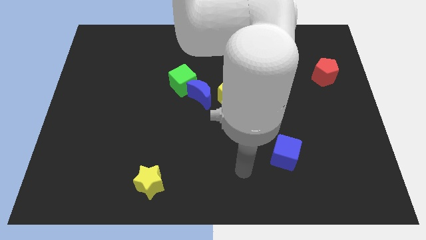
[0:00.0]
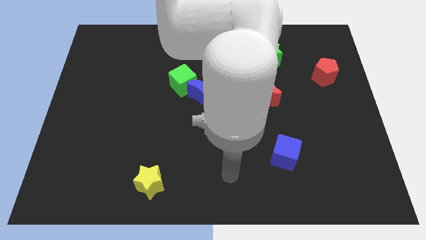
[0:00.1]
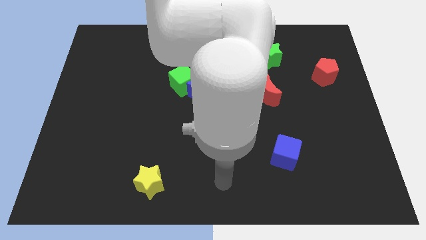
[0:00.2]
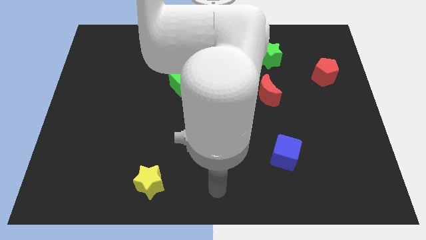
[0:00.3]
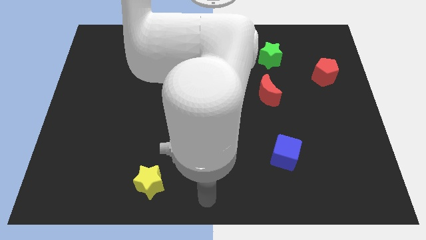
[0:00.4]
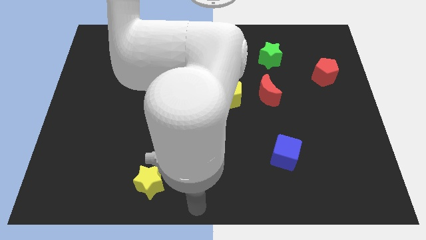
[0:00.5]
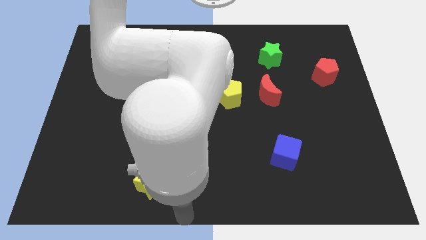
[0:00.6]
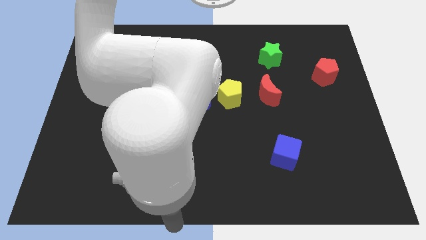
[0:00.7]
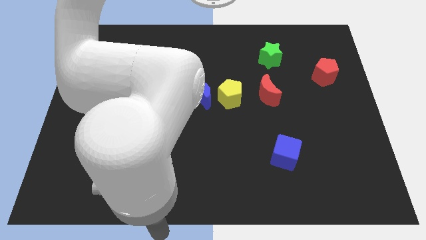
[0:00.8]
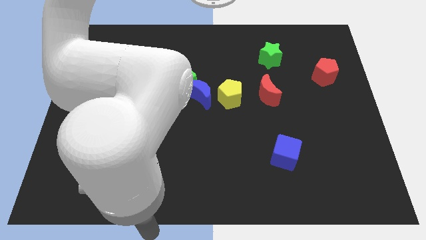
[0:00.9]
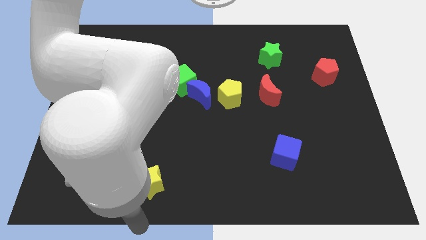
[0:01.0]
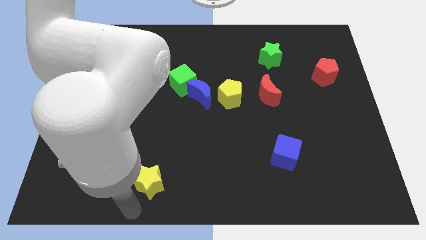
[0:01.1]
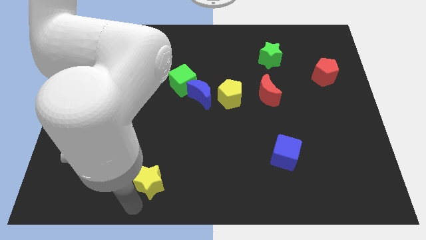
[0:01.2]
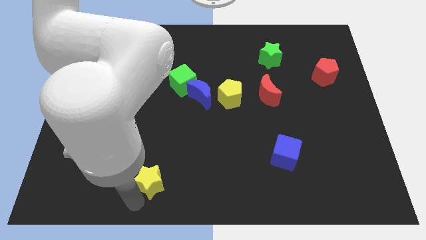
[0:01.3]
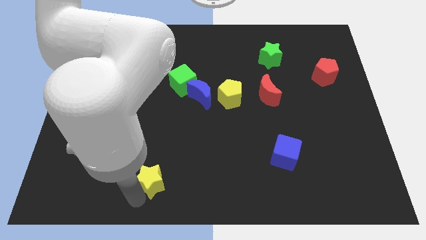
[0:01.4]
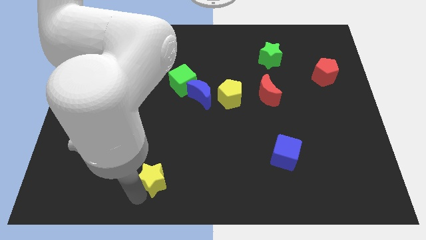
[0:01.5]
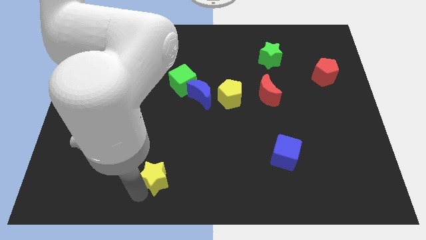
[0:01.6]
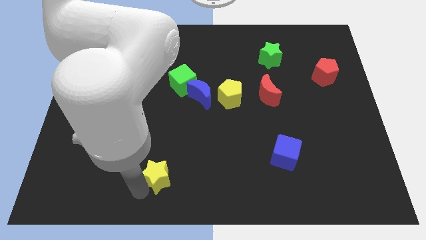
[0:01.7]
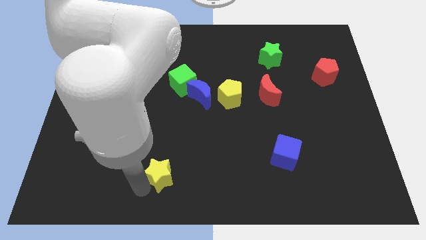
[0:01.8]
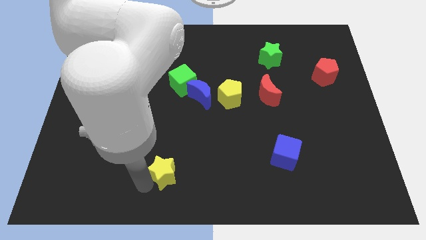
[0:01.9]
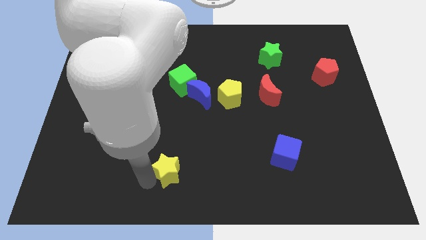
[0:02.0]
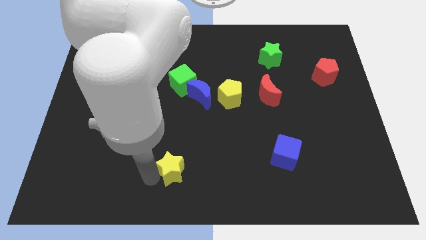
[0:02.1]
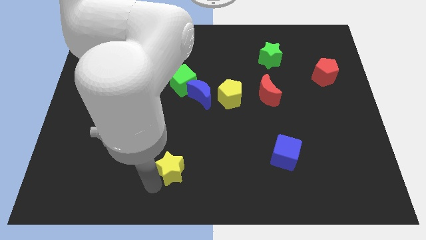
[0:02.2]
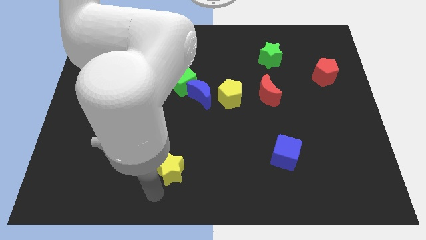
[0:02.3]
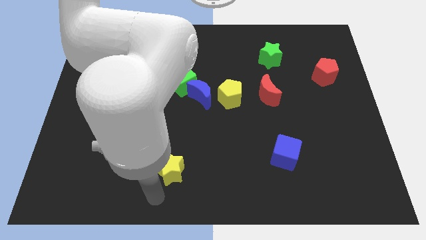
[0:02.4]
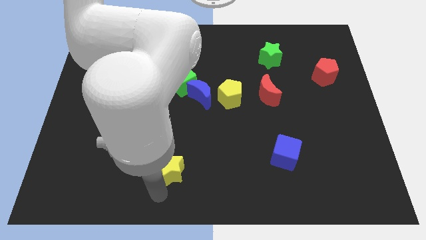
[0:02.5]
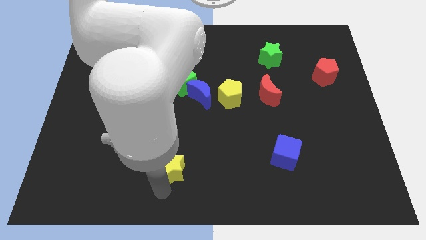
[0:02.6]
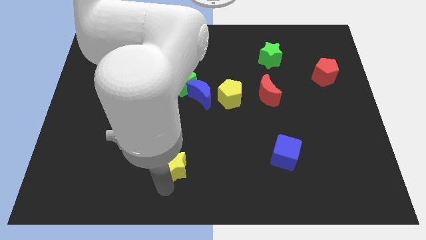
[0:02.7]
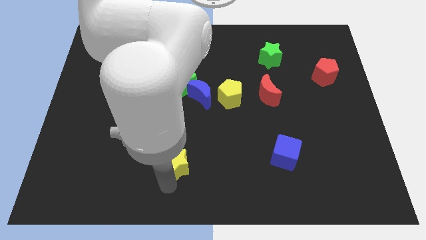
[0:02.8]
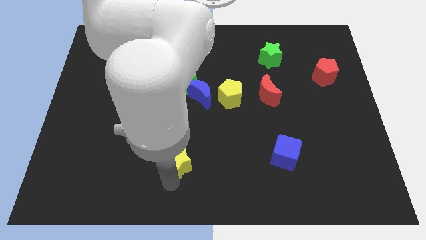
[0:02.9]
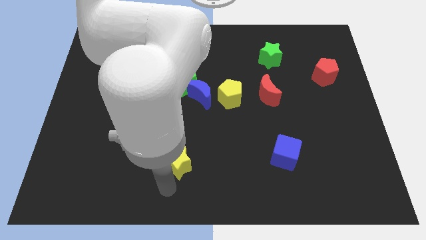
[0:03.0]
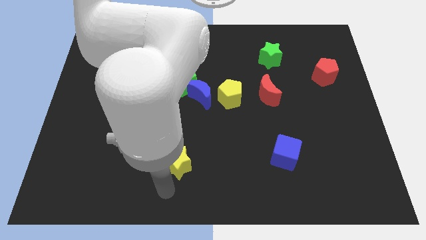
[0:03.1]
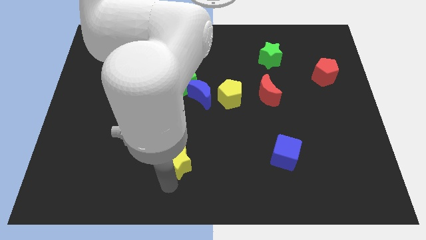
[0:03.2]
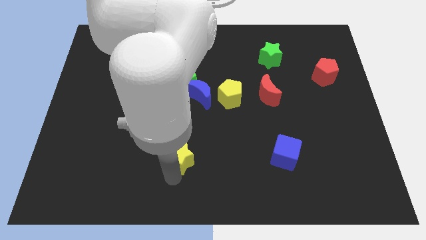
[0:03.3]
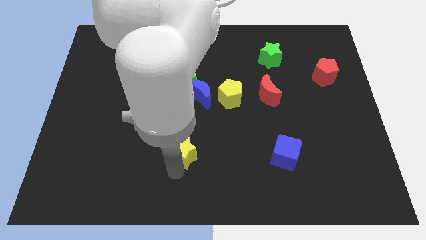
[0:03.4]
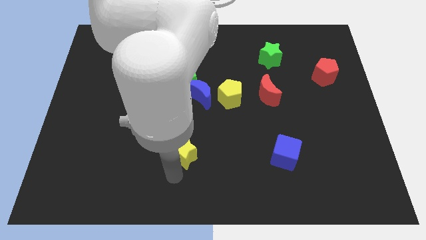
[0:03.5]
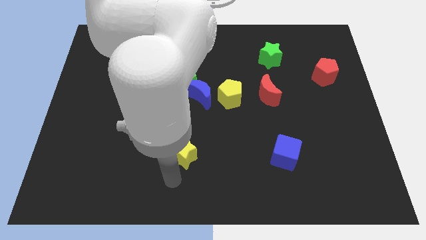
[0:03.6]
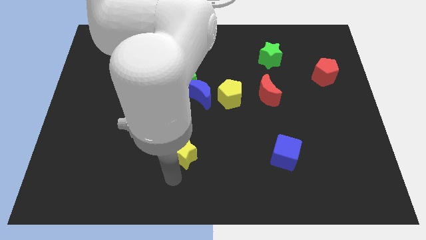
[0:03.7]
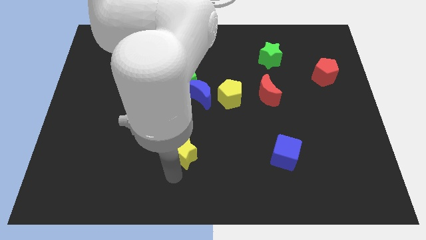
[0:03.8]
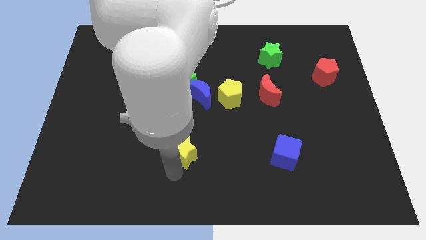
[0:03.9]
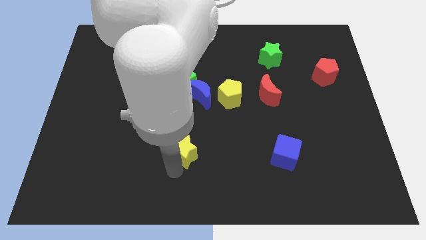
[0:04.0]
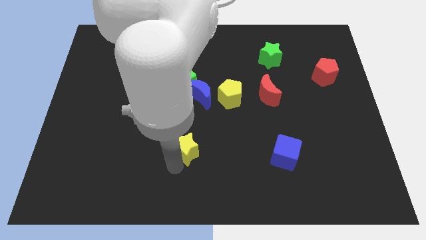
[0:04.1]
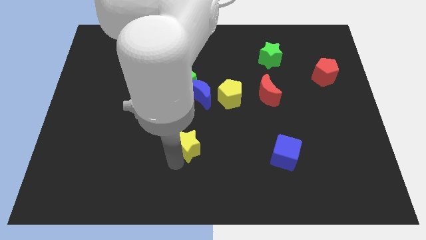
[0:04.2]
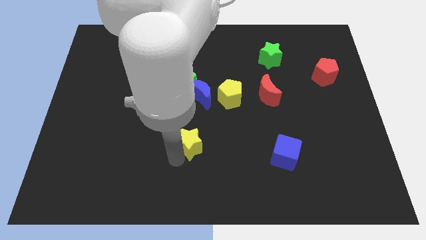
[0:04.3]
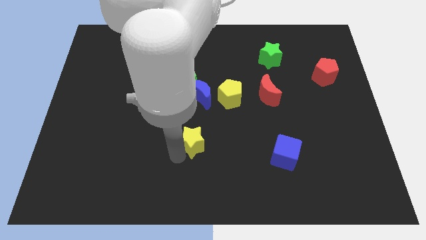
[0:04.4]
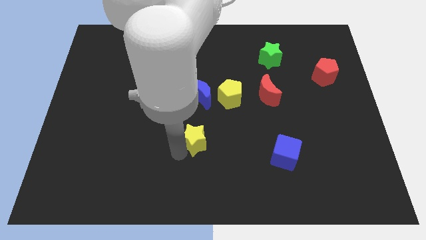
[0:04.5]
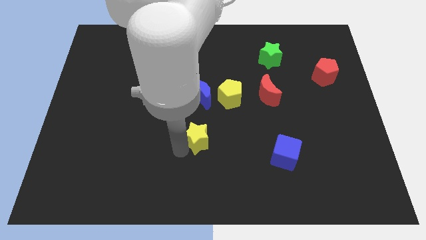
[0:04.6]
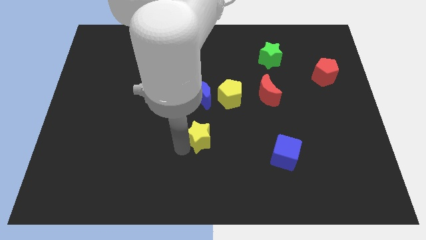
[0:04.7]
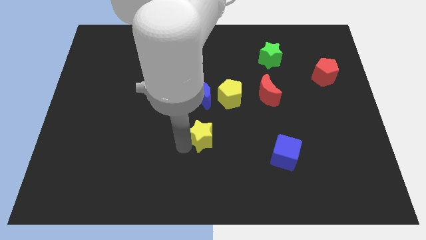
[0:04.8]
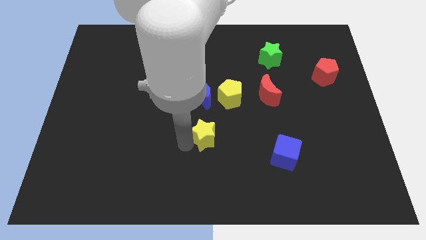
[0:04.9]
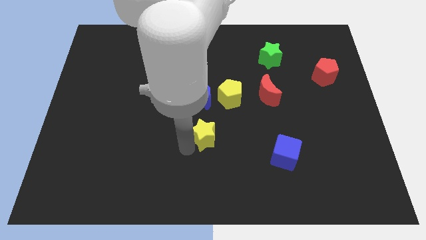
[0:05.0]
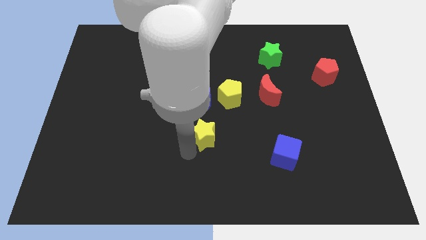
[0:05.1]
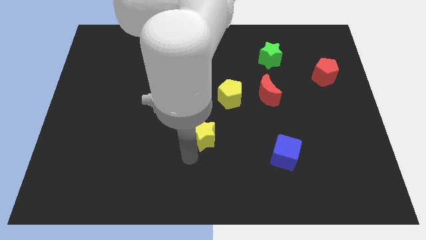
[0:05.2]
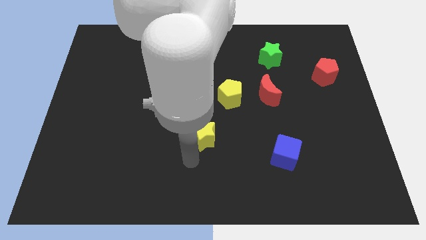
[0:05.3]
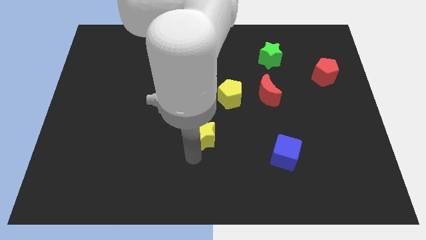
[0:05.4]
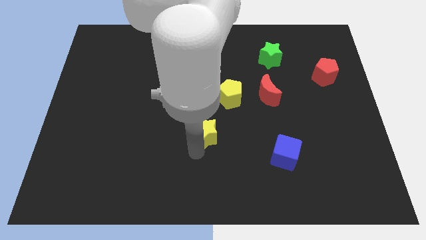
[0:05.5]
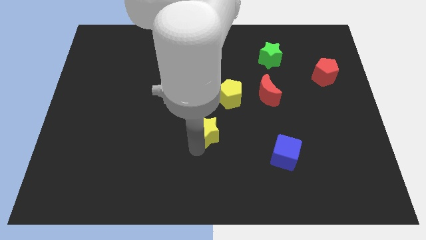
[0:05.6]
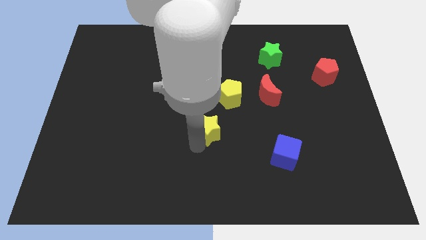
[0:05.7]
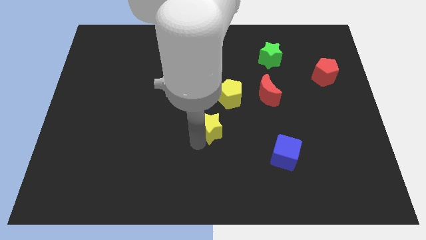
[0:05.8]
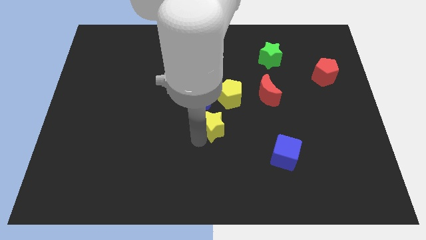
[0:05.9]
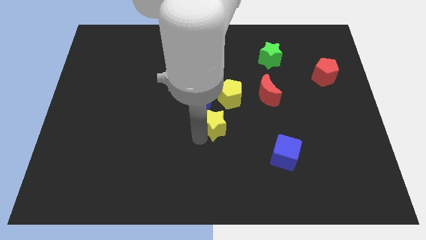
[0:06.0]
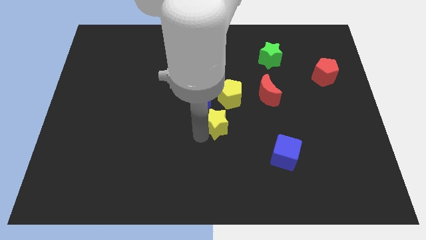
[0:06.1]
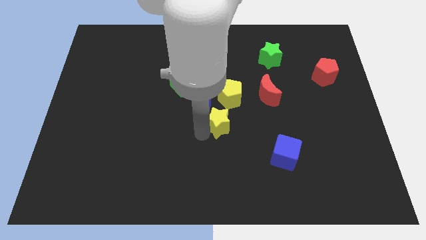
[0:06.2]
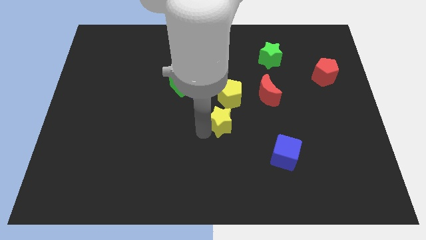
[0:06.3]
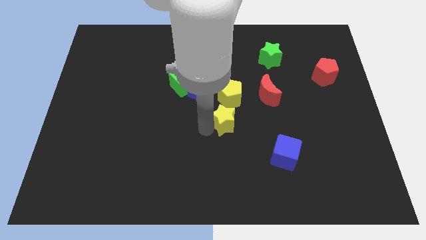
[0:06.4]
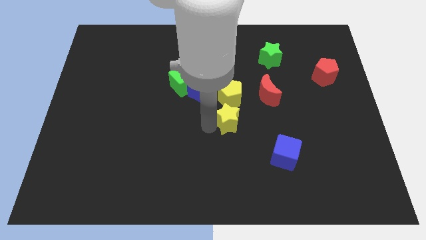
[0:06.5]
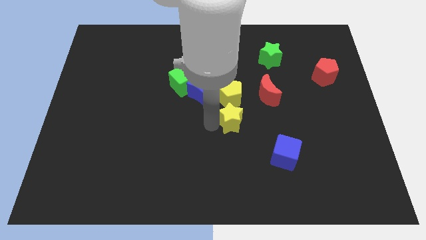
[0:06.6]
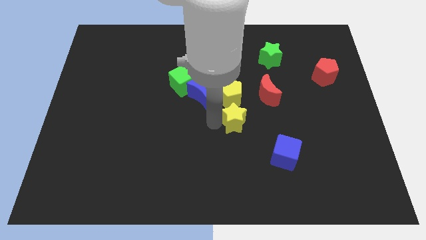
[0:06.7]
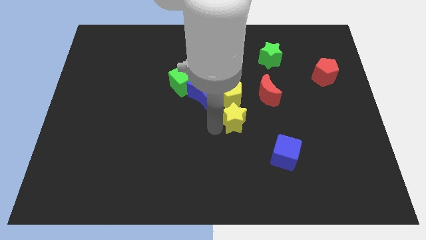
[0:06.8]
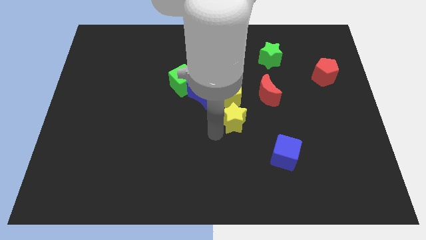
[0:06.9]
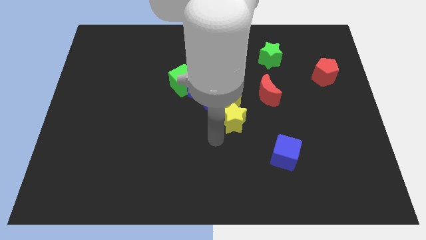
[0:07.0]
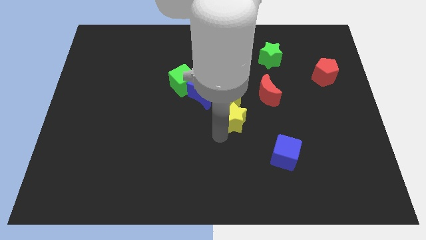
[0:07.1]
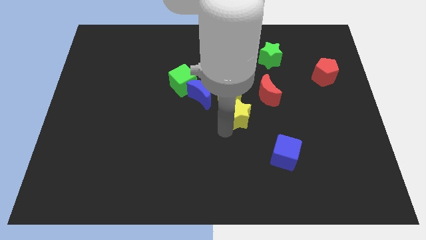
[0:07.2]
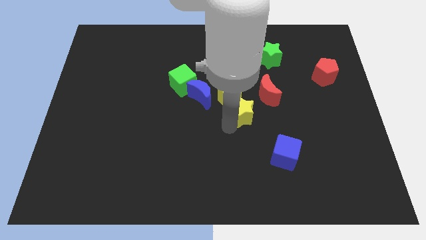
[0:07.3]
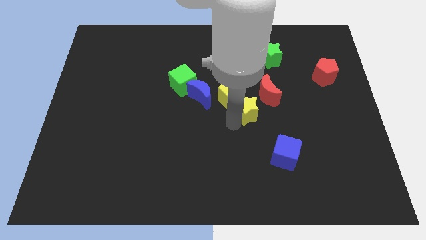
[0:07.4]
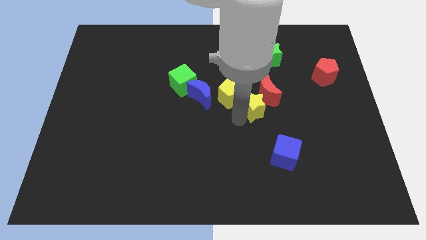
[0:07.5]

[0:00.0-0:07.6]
put the yellow star close to the red moon

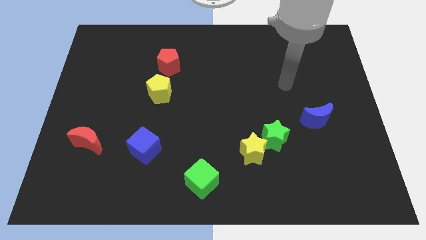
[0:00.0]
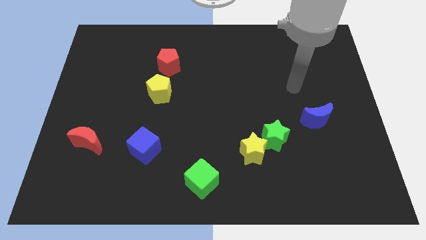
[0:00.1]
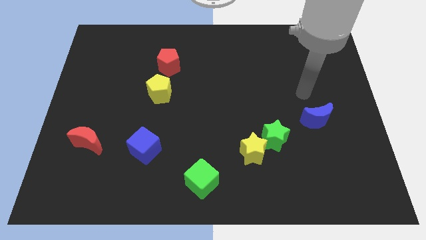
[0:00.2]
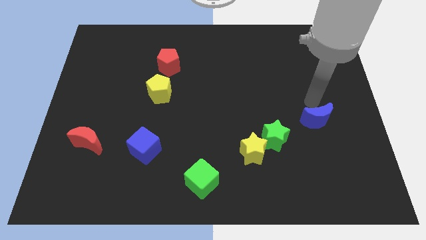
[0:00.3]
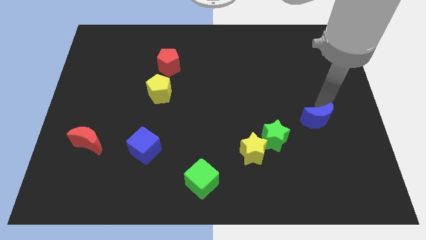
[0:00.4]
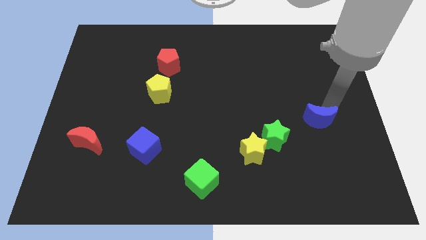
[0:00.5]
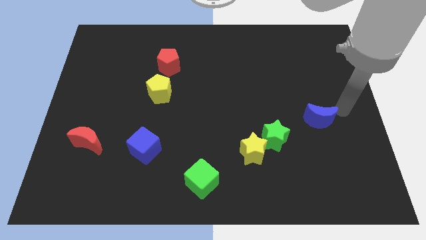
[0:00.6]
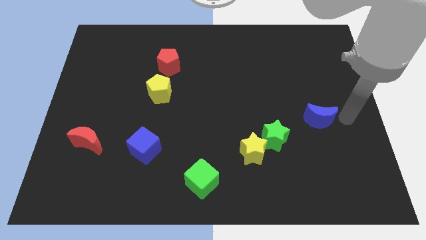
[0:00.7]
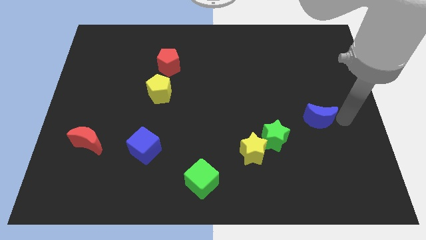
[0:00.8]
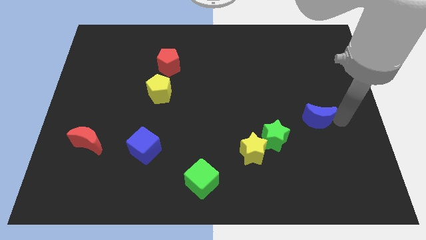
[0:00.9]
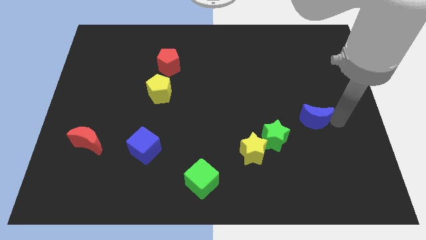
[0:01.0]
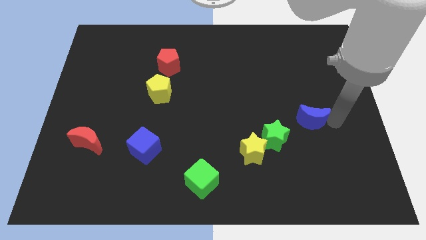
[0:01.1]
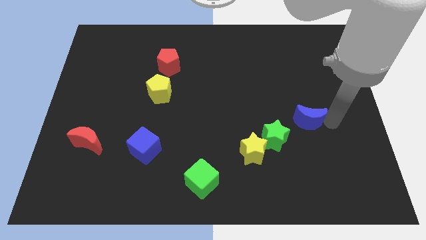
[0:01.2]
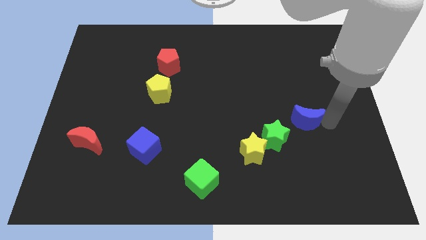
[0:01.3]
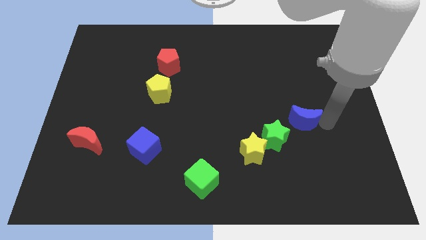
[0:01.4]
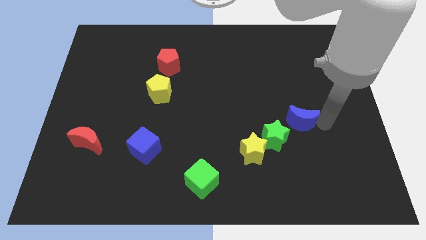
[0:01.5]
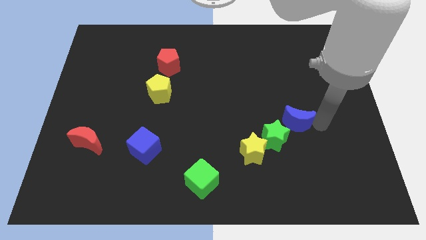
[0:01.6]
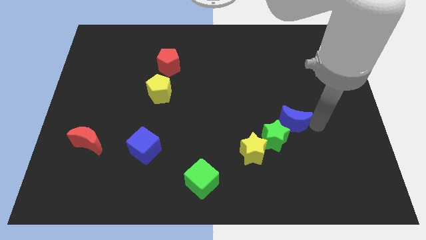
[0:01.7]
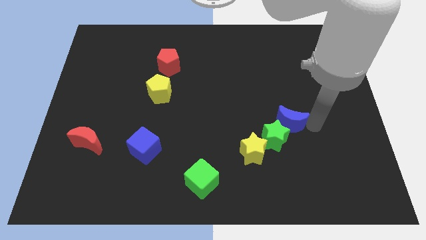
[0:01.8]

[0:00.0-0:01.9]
push the blue moon towards the green star
